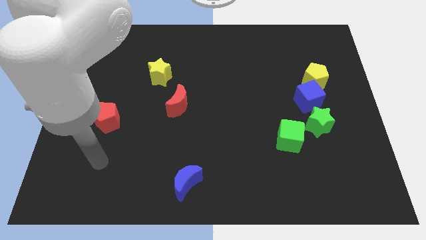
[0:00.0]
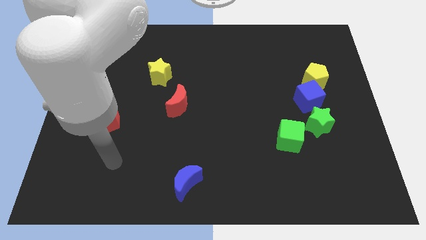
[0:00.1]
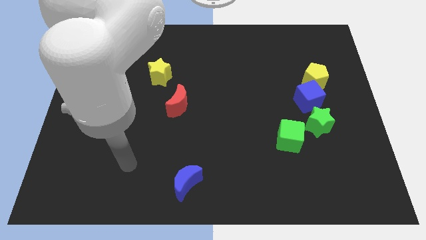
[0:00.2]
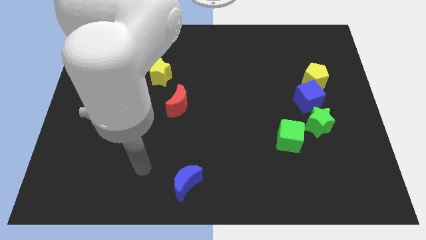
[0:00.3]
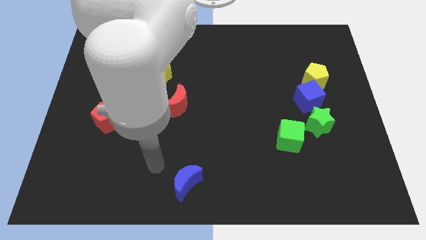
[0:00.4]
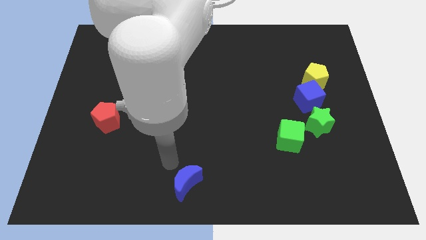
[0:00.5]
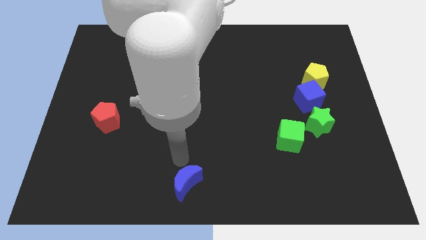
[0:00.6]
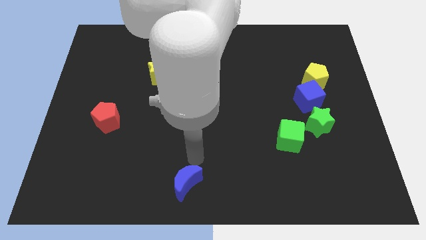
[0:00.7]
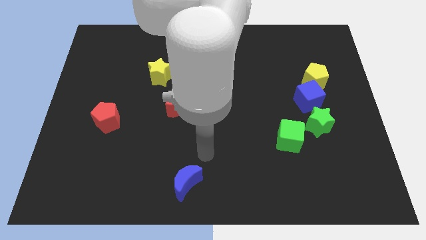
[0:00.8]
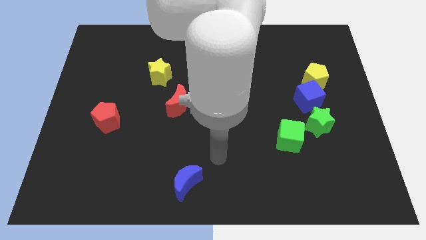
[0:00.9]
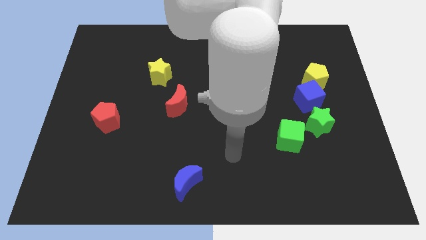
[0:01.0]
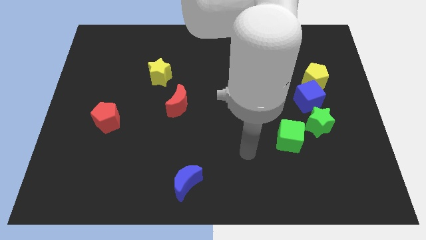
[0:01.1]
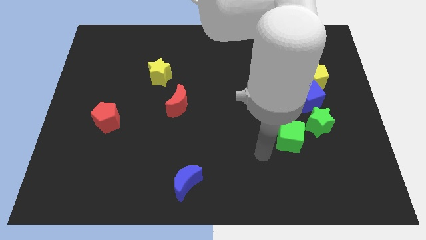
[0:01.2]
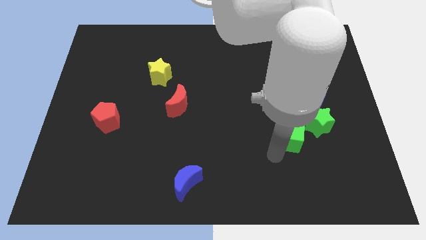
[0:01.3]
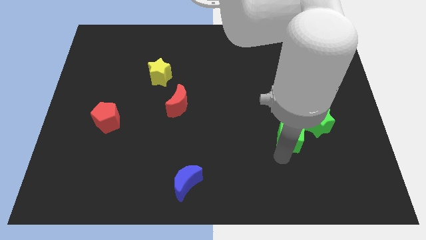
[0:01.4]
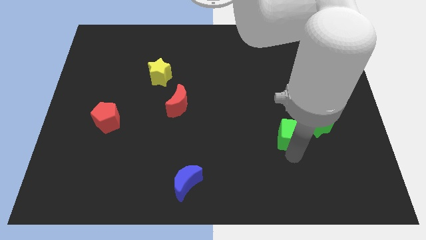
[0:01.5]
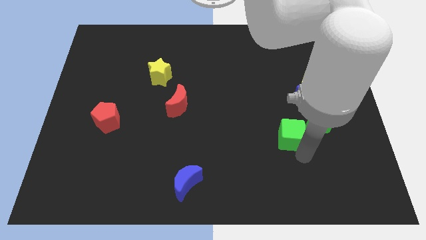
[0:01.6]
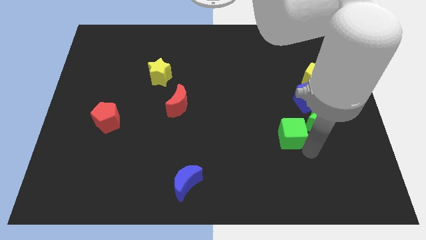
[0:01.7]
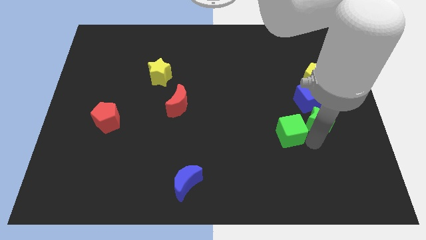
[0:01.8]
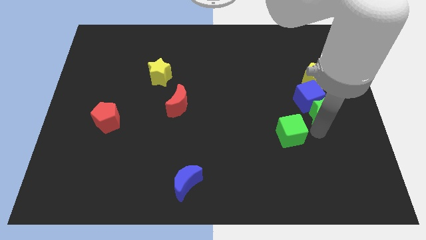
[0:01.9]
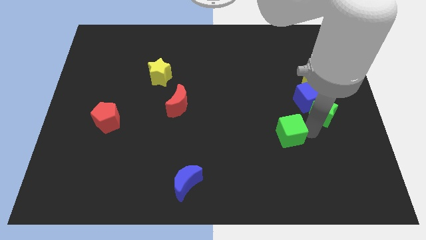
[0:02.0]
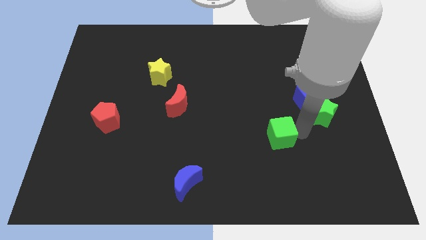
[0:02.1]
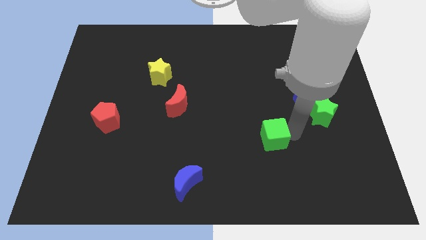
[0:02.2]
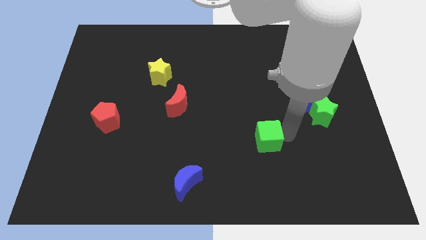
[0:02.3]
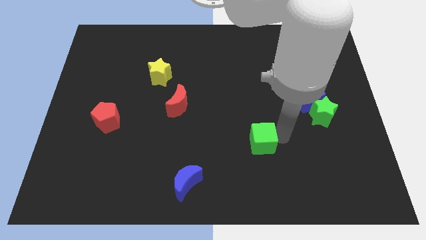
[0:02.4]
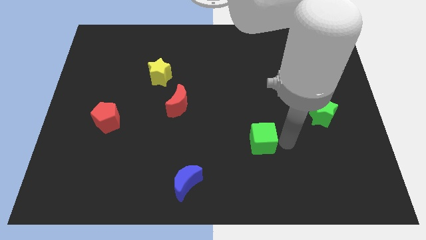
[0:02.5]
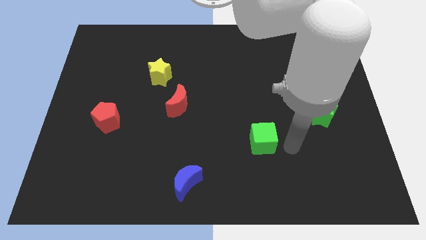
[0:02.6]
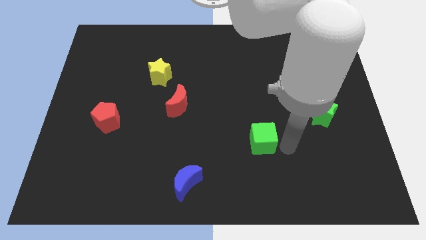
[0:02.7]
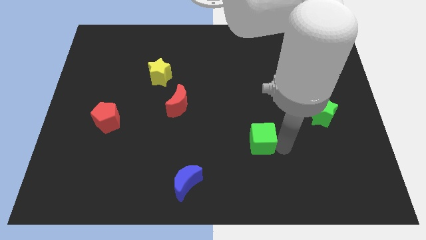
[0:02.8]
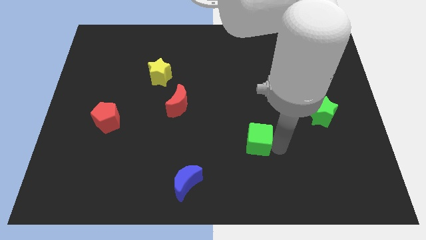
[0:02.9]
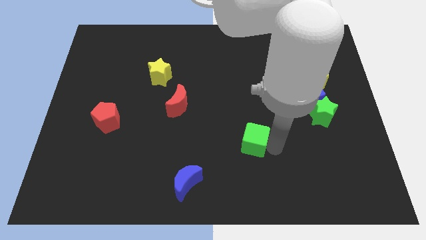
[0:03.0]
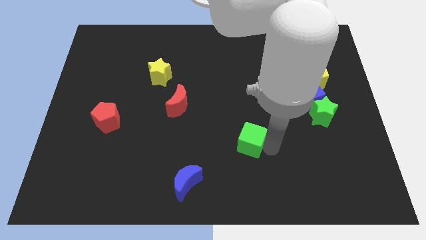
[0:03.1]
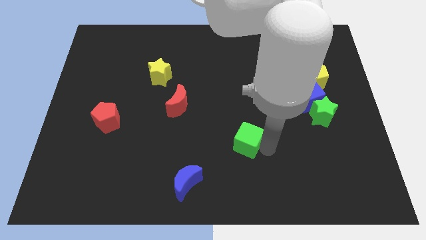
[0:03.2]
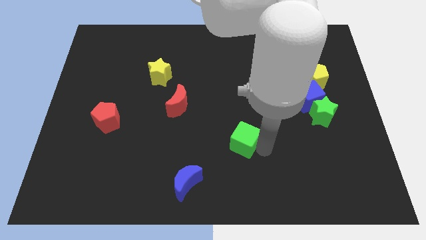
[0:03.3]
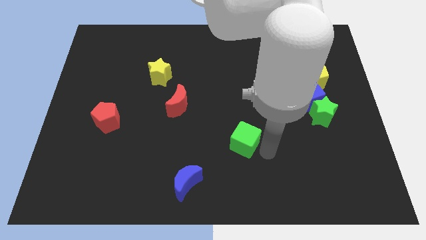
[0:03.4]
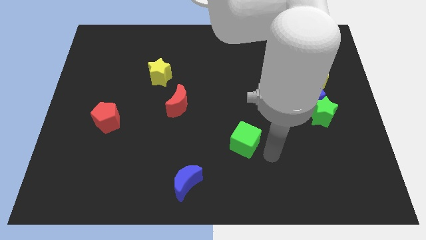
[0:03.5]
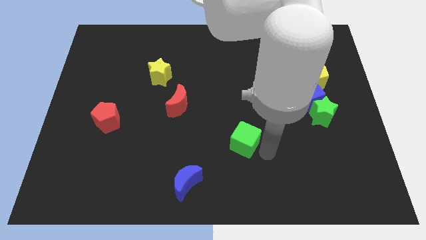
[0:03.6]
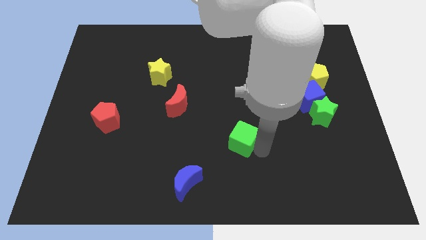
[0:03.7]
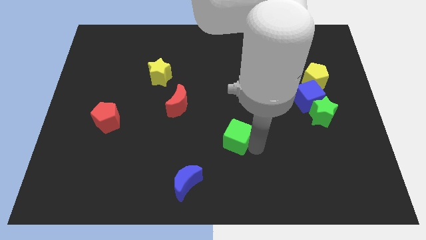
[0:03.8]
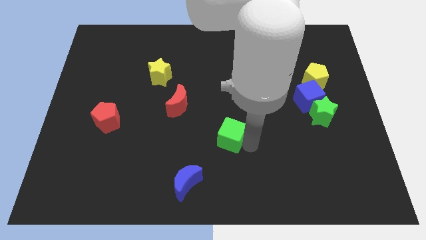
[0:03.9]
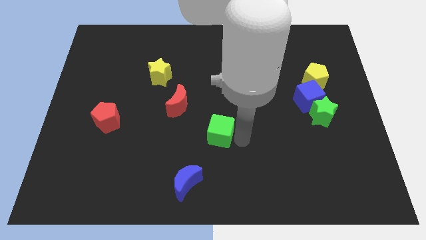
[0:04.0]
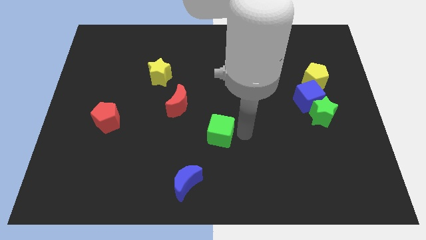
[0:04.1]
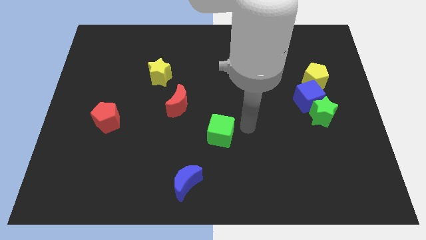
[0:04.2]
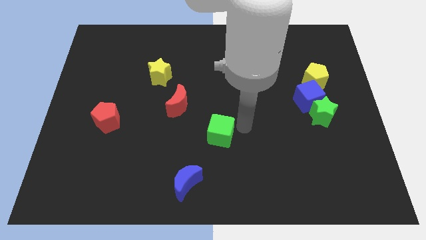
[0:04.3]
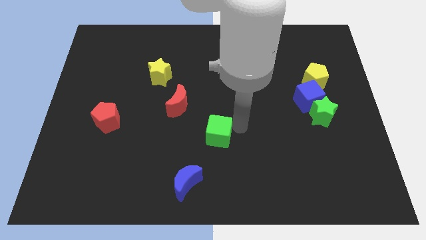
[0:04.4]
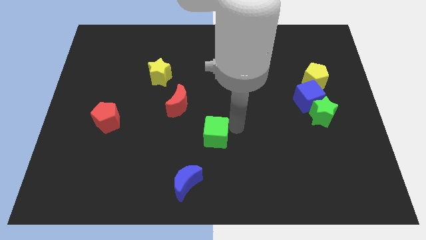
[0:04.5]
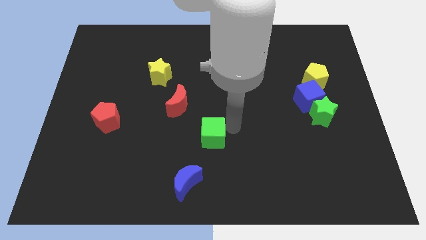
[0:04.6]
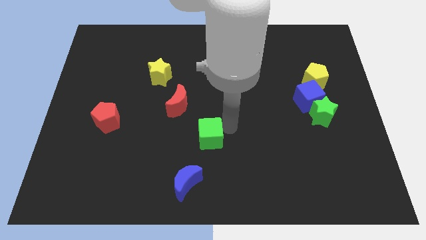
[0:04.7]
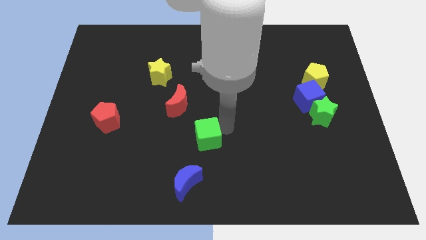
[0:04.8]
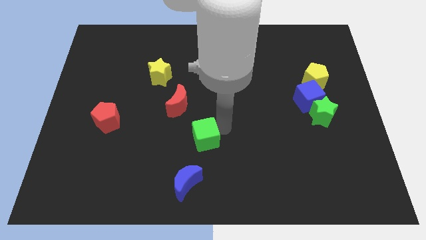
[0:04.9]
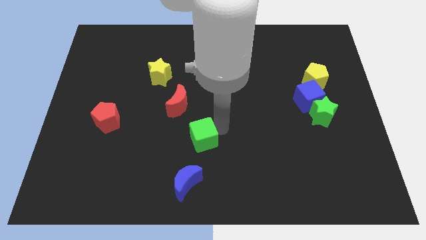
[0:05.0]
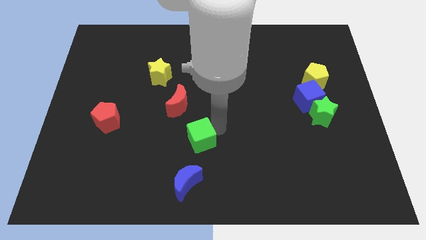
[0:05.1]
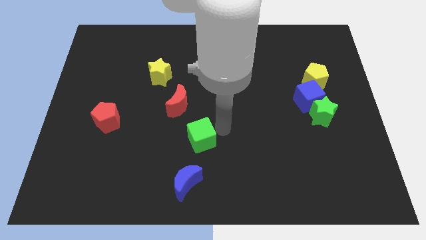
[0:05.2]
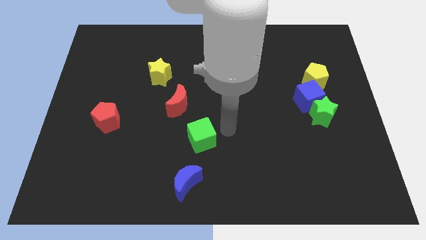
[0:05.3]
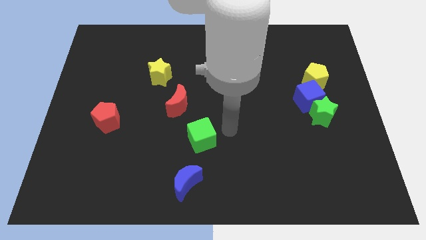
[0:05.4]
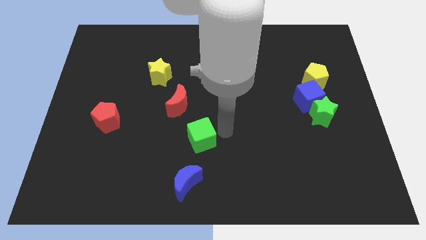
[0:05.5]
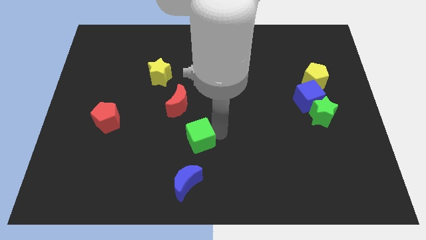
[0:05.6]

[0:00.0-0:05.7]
move the green cube to the left

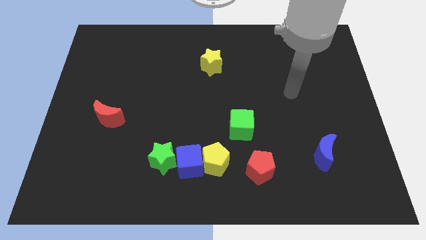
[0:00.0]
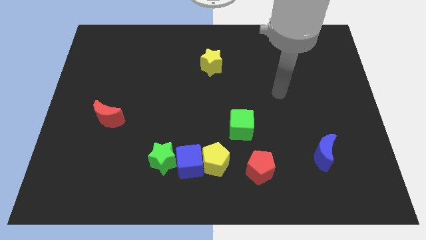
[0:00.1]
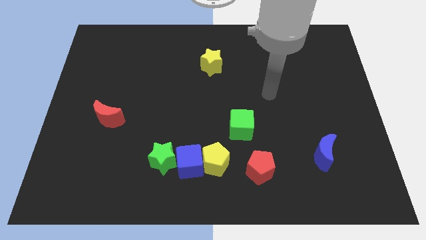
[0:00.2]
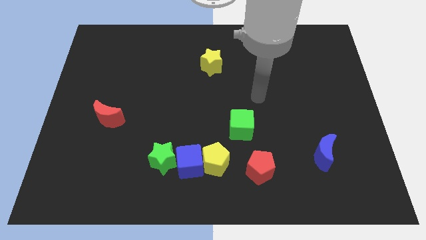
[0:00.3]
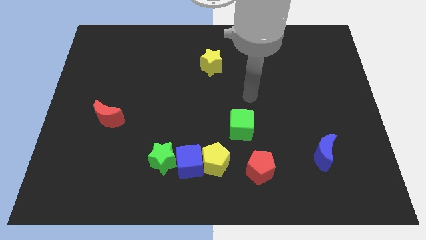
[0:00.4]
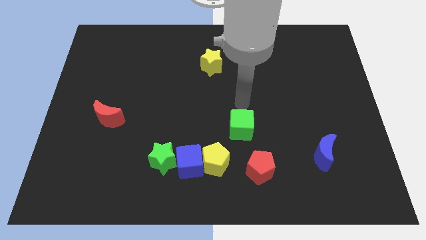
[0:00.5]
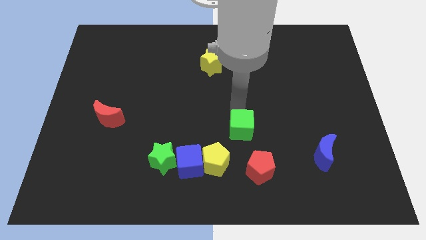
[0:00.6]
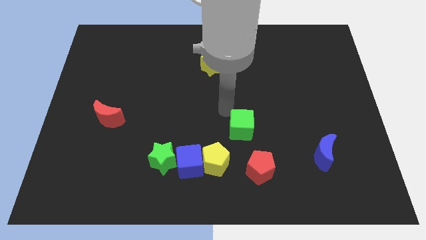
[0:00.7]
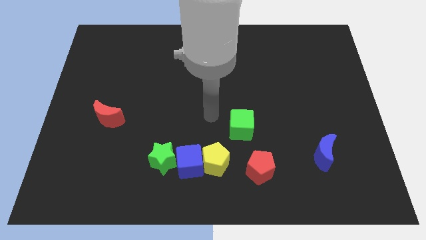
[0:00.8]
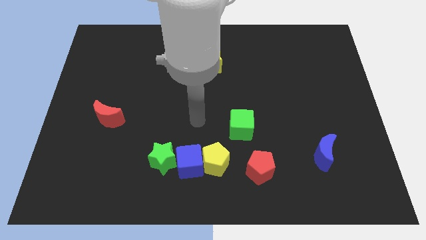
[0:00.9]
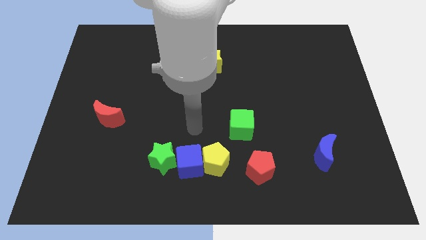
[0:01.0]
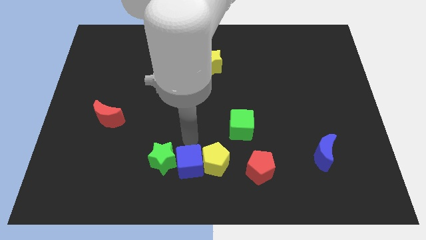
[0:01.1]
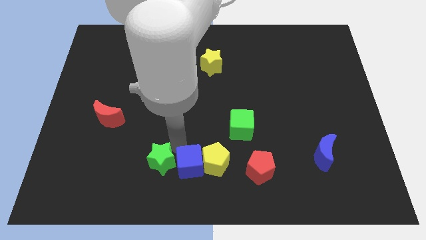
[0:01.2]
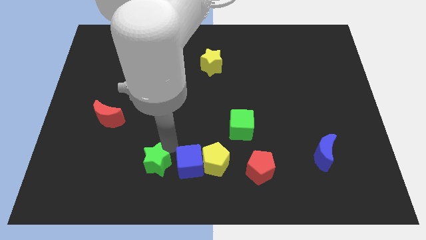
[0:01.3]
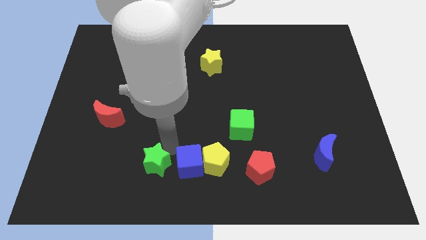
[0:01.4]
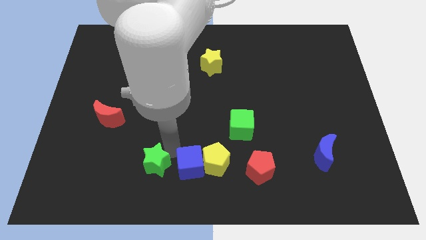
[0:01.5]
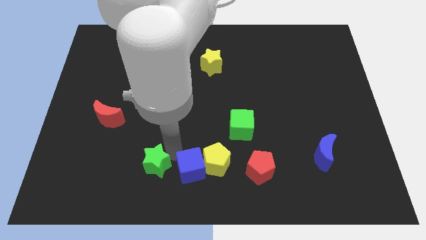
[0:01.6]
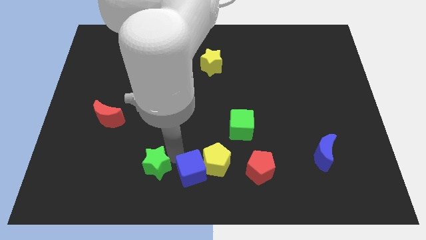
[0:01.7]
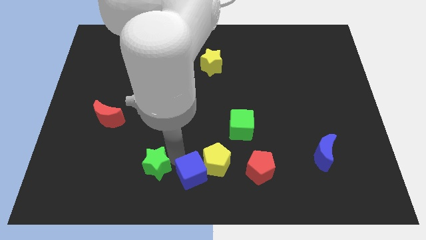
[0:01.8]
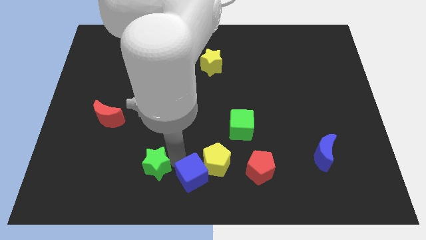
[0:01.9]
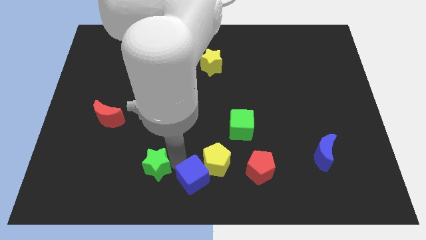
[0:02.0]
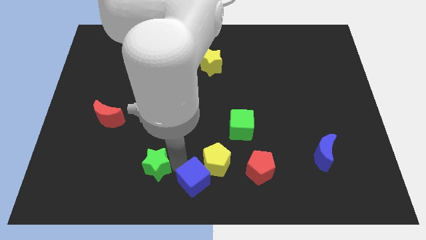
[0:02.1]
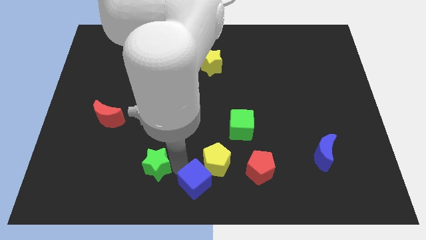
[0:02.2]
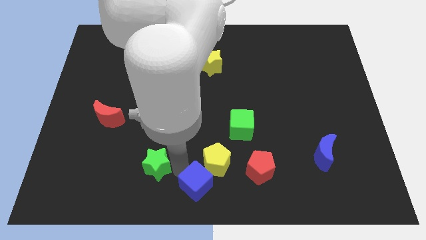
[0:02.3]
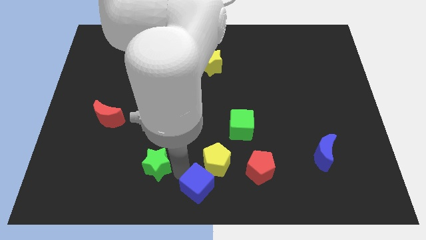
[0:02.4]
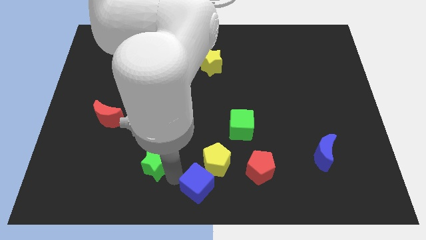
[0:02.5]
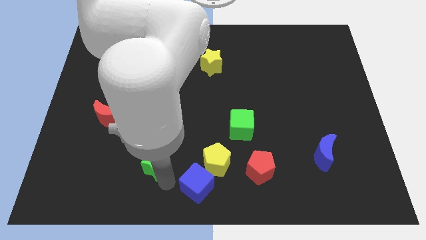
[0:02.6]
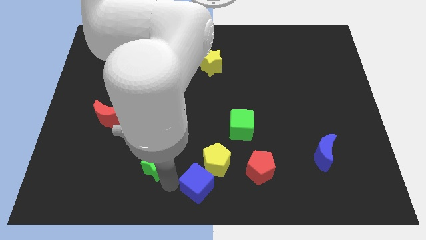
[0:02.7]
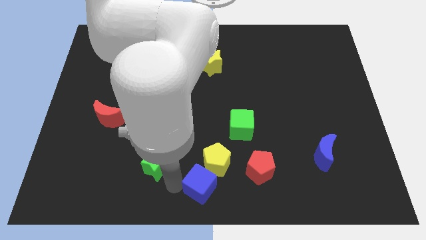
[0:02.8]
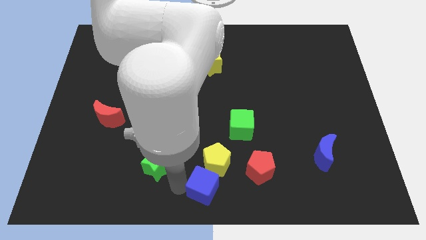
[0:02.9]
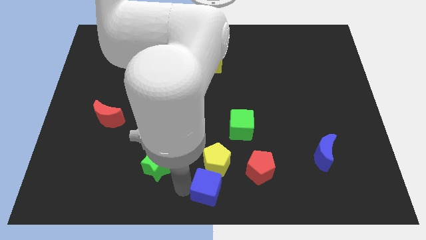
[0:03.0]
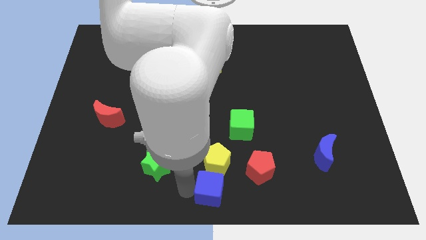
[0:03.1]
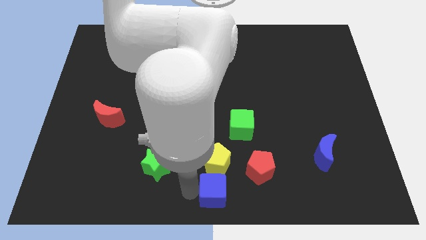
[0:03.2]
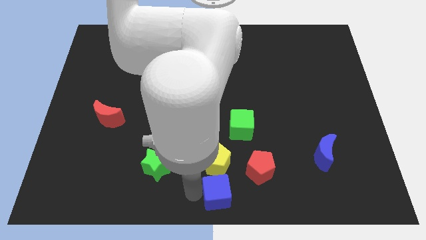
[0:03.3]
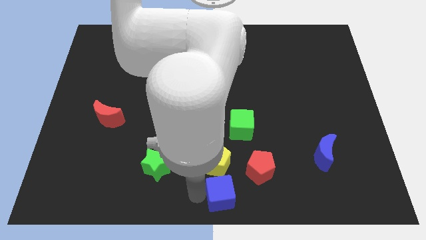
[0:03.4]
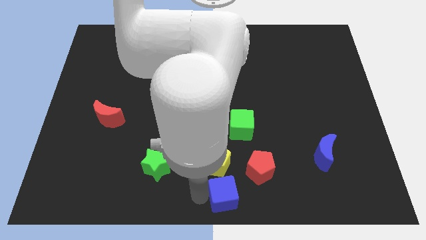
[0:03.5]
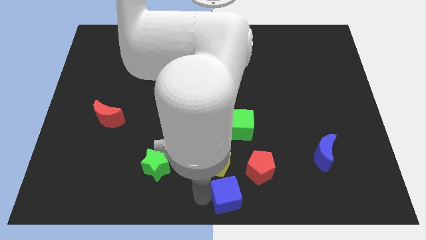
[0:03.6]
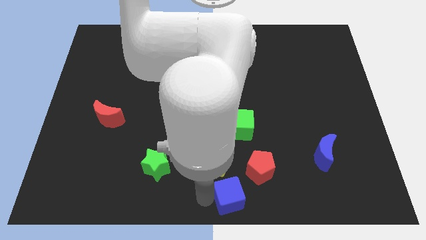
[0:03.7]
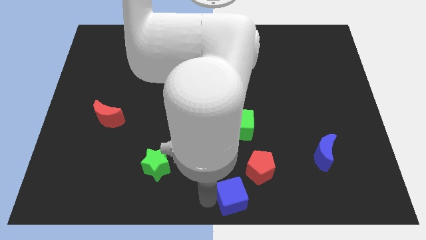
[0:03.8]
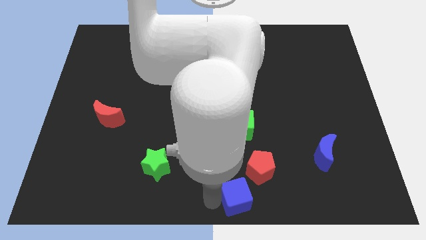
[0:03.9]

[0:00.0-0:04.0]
slightly push the blue cube right
